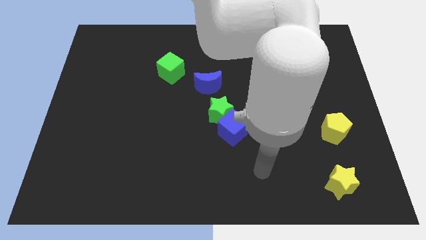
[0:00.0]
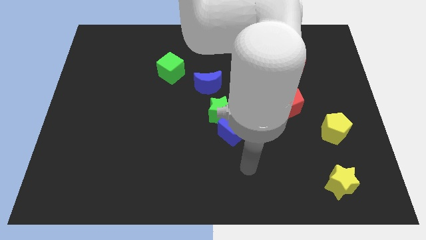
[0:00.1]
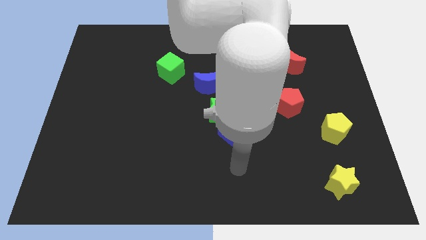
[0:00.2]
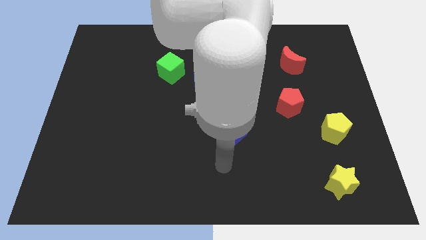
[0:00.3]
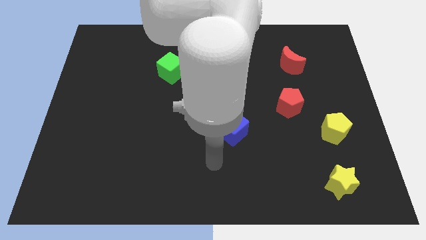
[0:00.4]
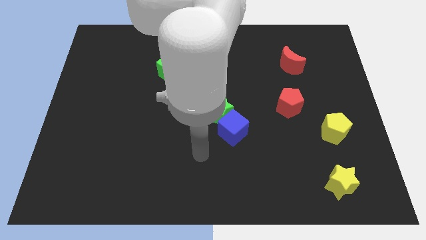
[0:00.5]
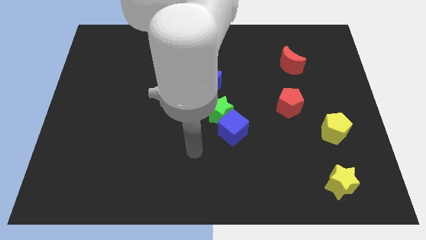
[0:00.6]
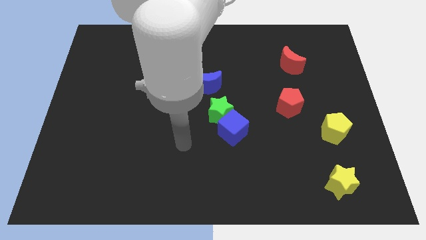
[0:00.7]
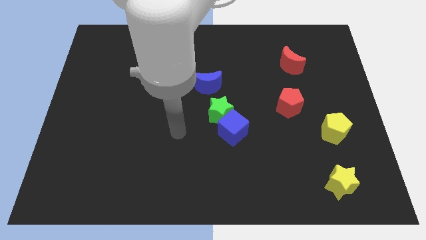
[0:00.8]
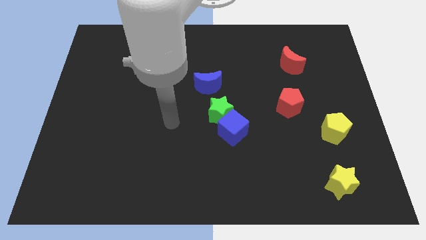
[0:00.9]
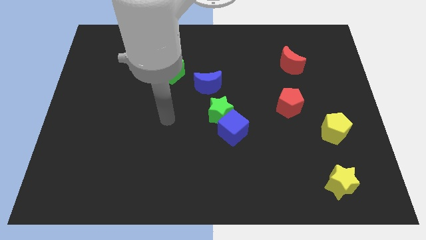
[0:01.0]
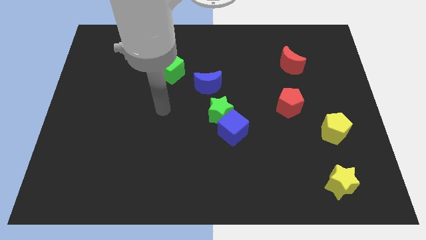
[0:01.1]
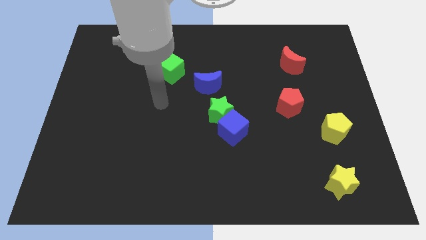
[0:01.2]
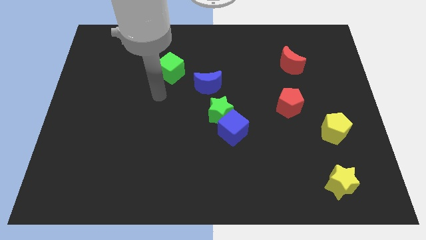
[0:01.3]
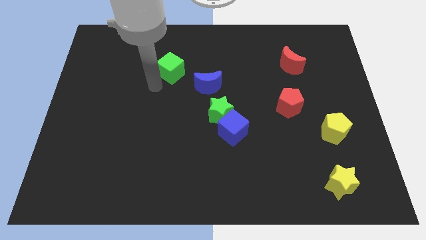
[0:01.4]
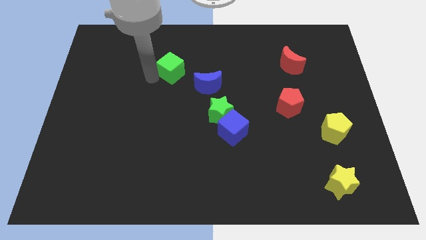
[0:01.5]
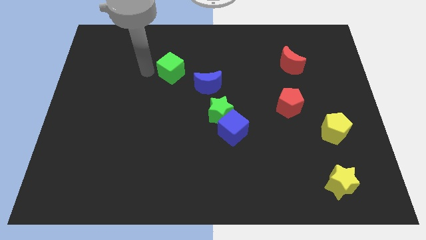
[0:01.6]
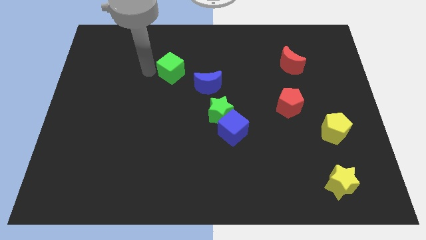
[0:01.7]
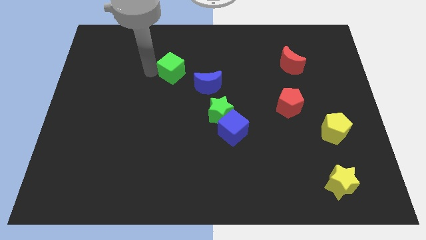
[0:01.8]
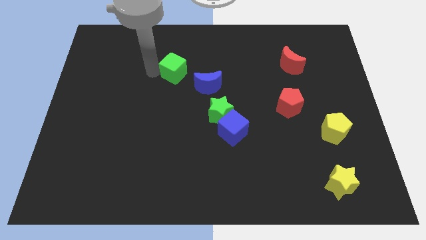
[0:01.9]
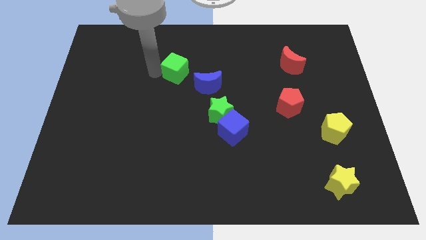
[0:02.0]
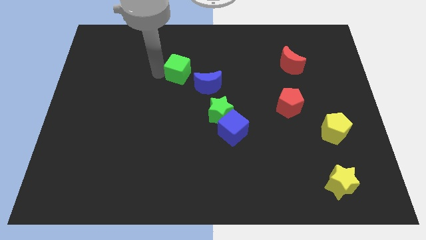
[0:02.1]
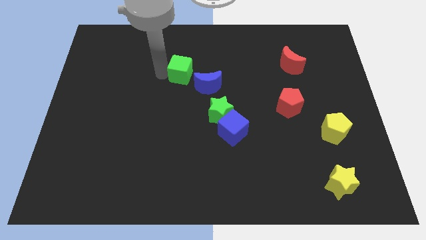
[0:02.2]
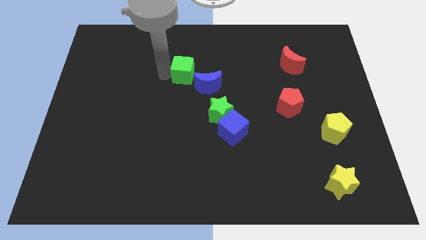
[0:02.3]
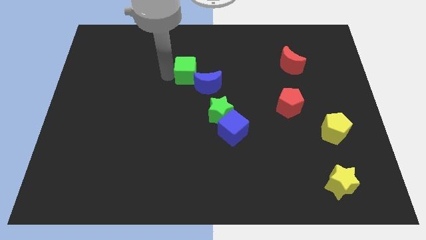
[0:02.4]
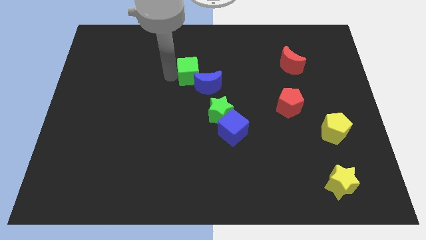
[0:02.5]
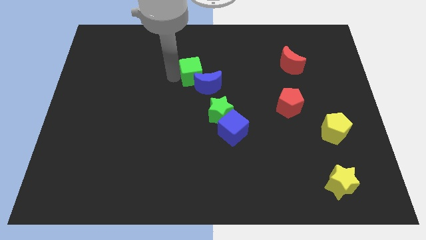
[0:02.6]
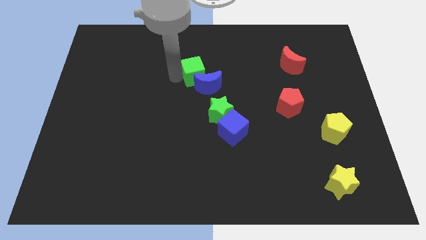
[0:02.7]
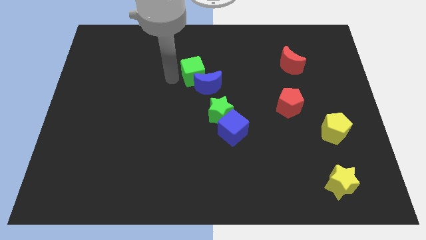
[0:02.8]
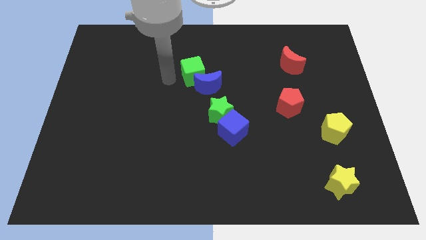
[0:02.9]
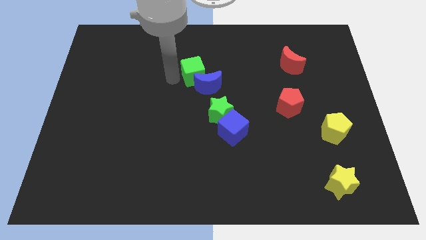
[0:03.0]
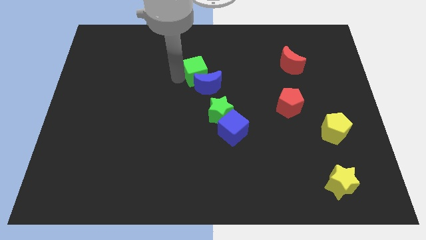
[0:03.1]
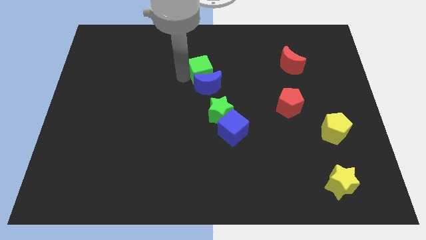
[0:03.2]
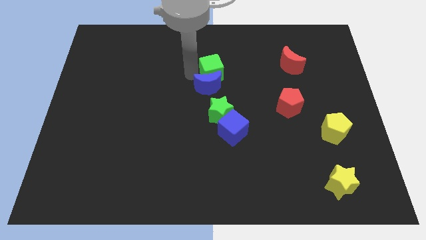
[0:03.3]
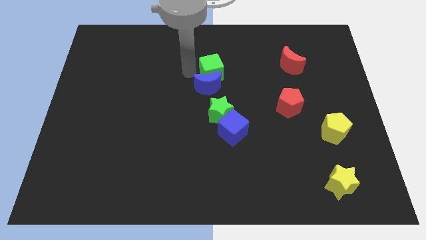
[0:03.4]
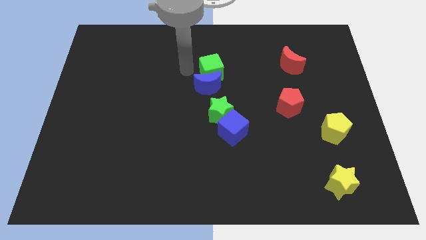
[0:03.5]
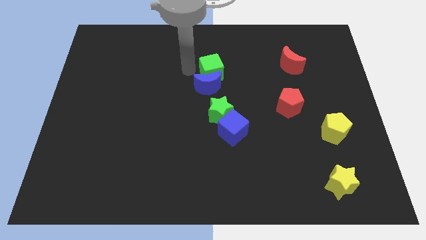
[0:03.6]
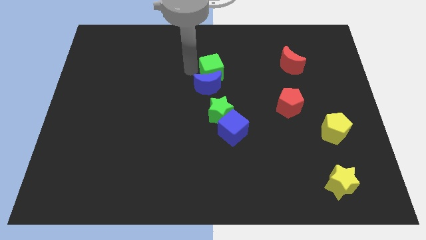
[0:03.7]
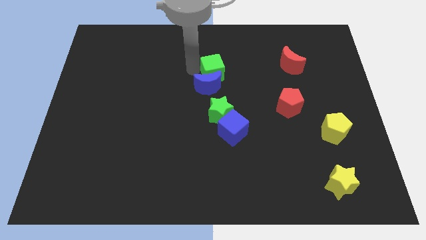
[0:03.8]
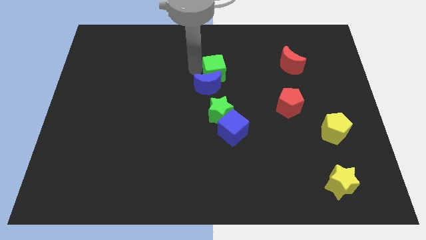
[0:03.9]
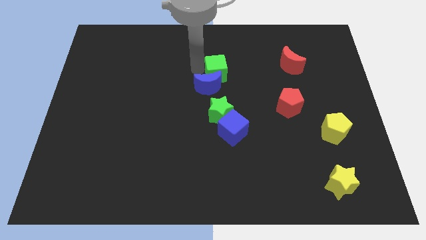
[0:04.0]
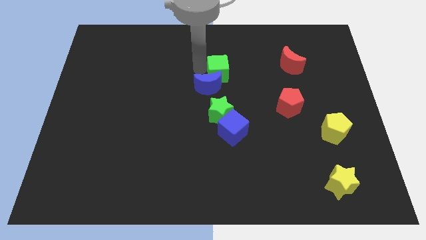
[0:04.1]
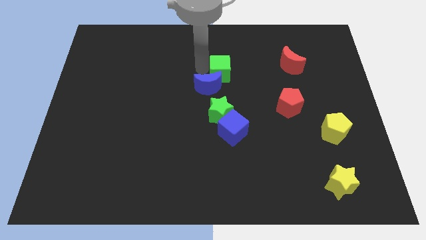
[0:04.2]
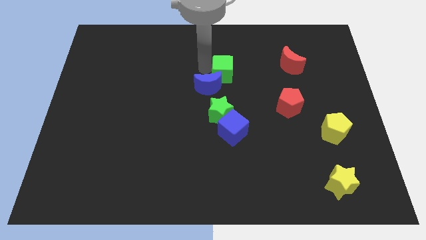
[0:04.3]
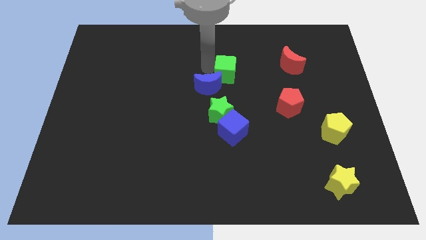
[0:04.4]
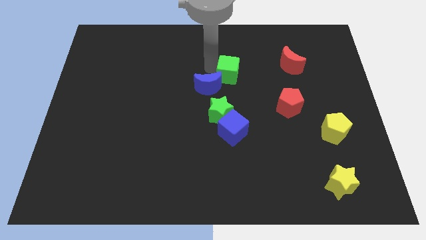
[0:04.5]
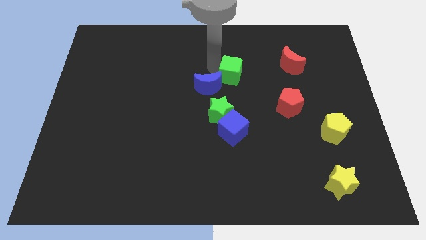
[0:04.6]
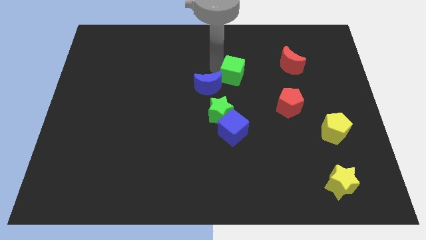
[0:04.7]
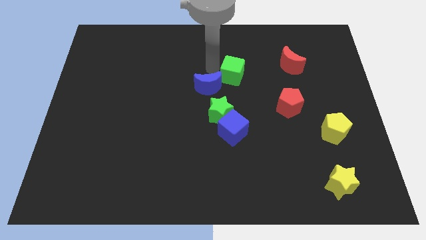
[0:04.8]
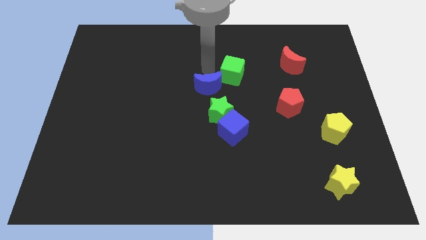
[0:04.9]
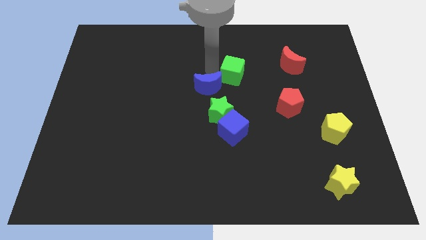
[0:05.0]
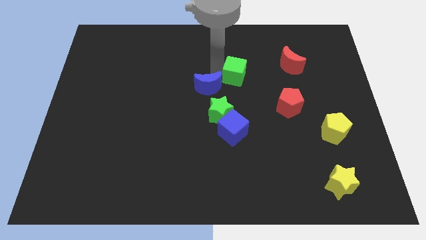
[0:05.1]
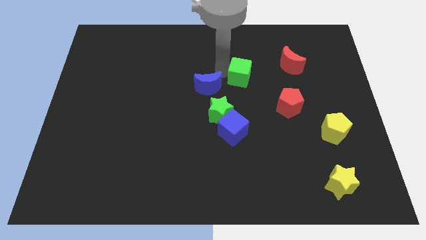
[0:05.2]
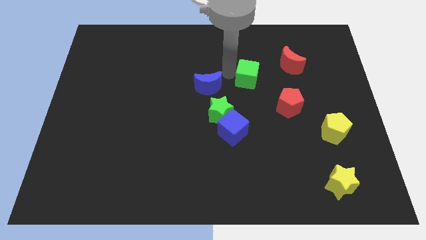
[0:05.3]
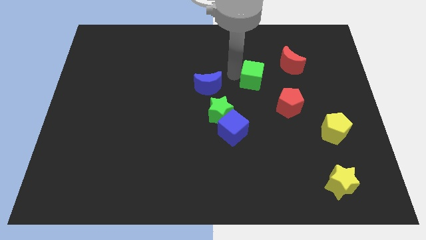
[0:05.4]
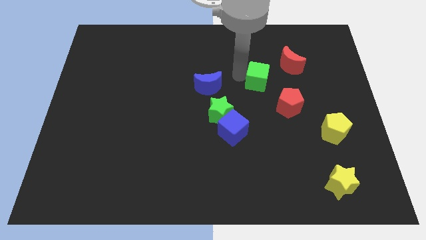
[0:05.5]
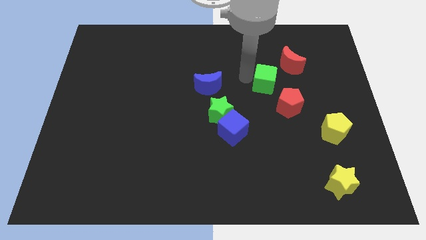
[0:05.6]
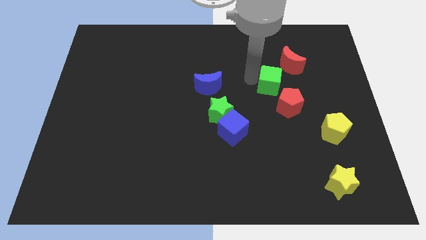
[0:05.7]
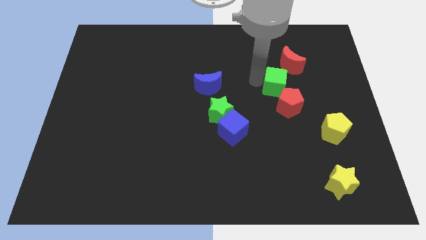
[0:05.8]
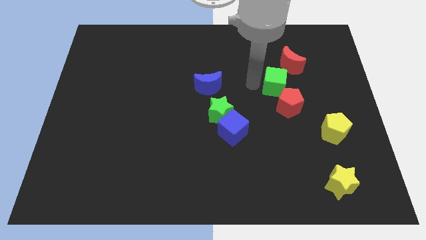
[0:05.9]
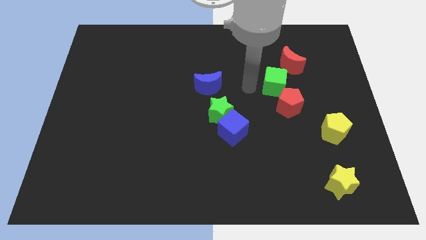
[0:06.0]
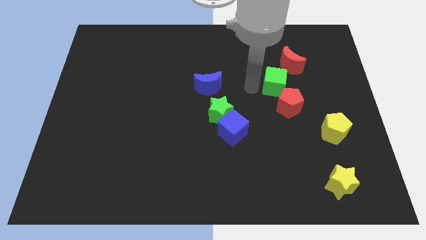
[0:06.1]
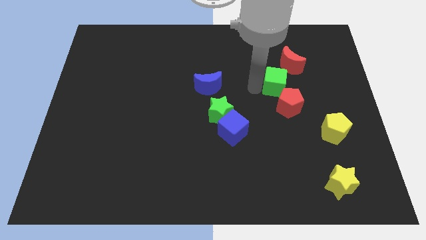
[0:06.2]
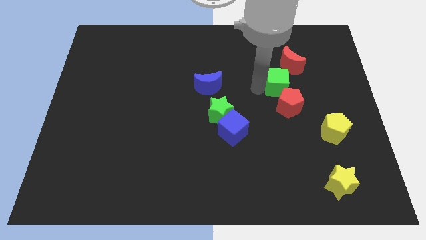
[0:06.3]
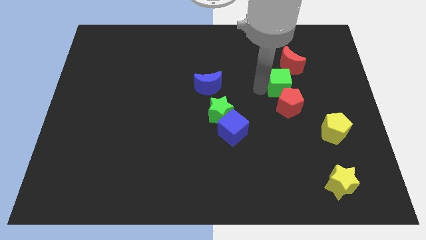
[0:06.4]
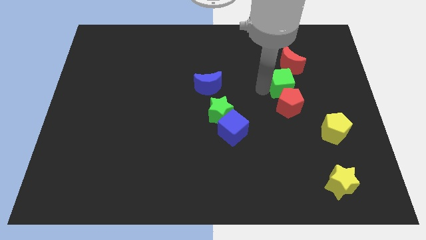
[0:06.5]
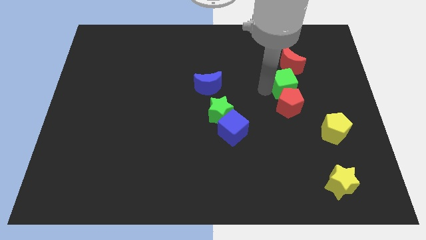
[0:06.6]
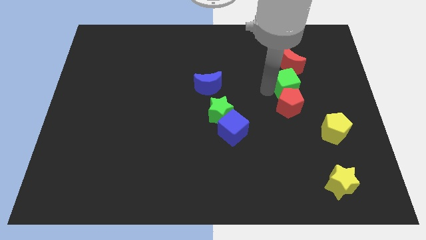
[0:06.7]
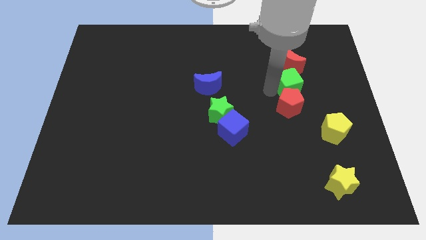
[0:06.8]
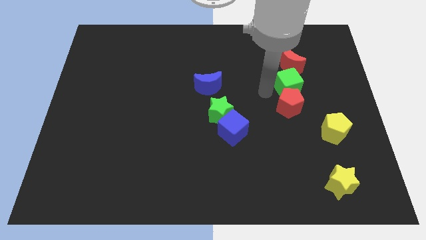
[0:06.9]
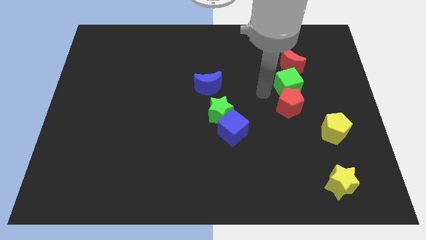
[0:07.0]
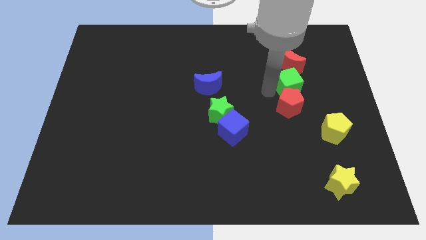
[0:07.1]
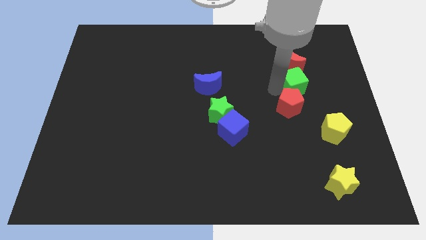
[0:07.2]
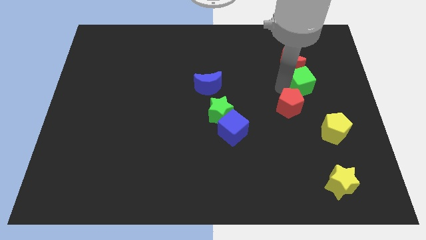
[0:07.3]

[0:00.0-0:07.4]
put the green cube to the bottom right side of the red moon

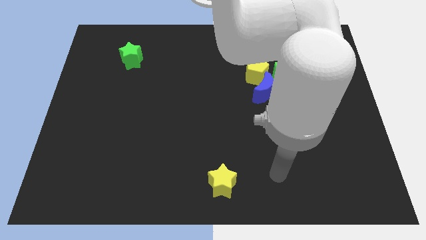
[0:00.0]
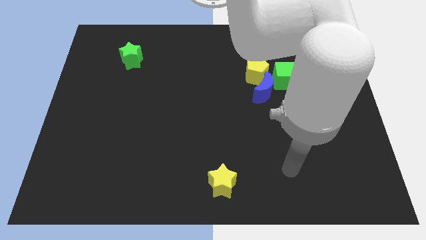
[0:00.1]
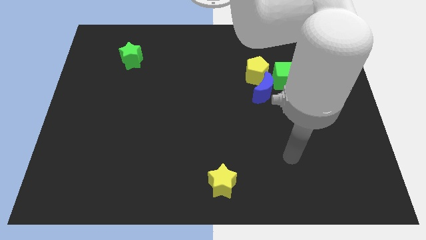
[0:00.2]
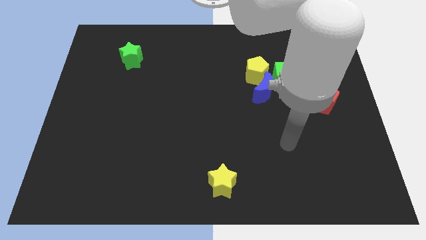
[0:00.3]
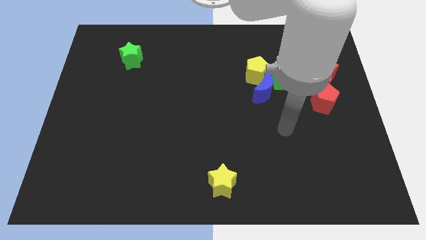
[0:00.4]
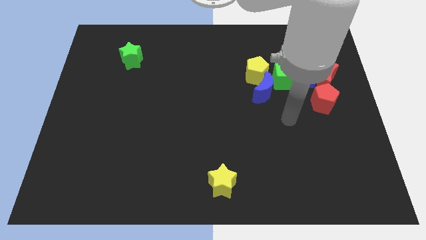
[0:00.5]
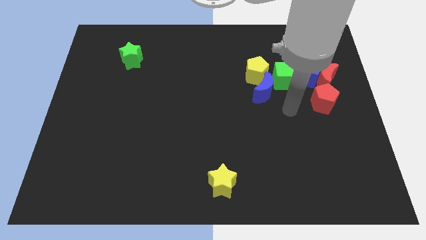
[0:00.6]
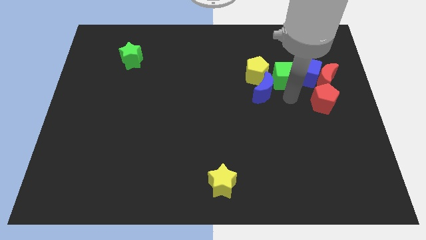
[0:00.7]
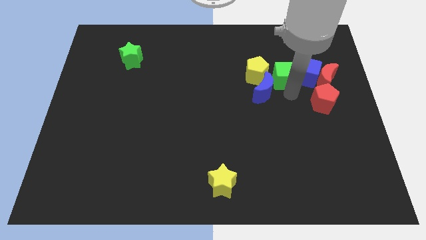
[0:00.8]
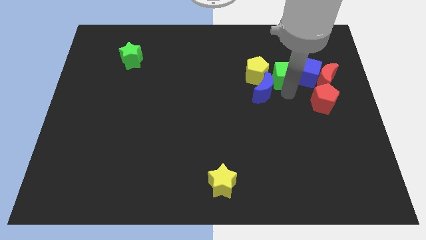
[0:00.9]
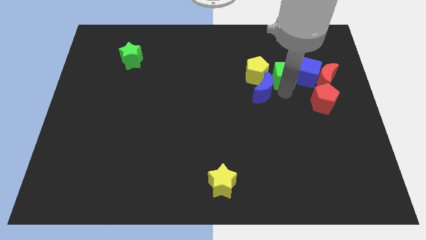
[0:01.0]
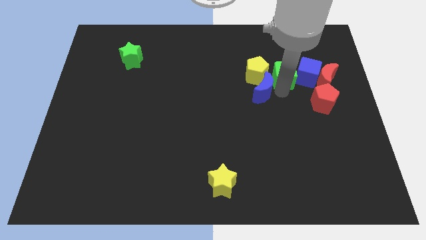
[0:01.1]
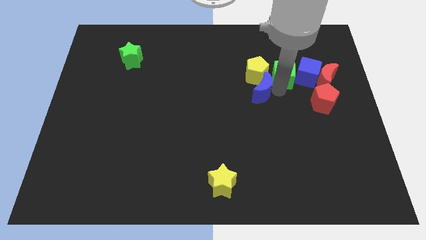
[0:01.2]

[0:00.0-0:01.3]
push the blue moon to the bottom left side of the yellow pentagon

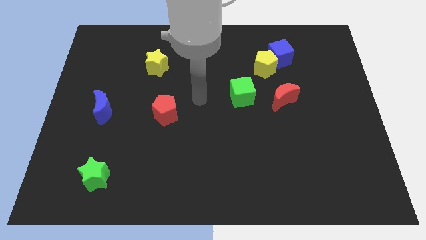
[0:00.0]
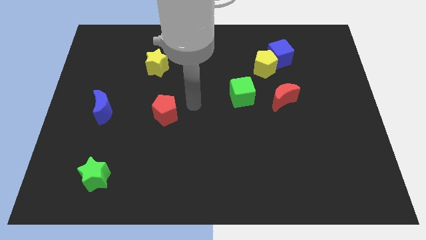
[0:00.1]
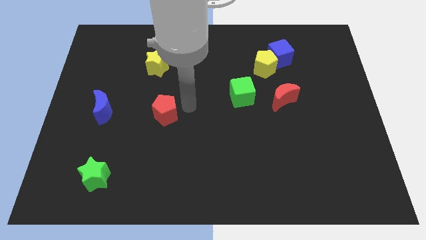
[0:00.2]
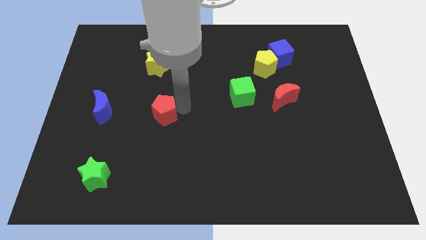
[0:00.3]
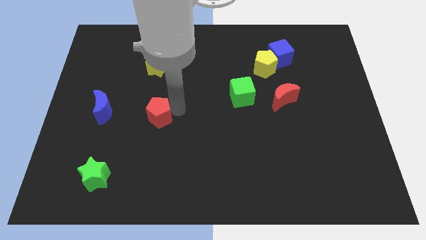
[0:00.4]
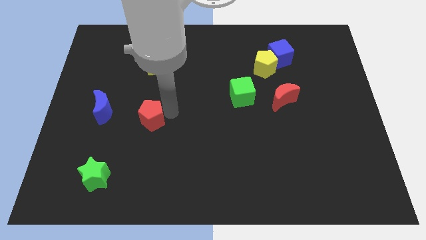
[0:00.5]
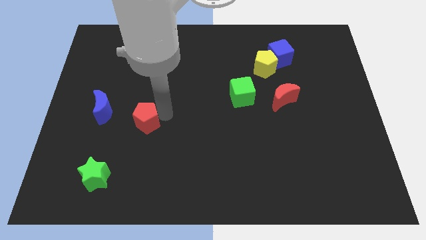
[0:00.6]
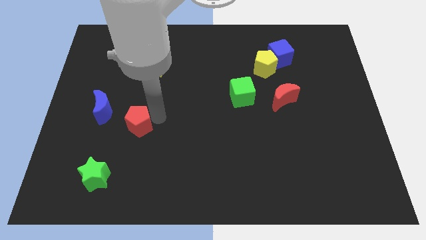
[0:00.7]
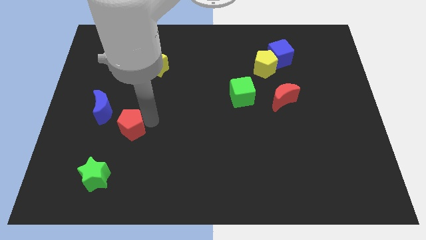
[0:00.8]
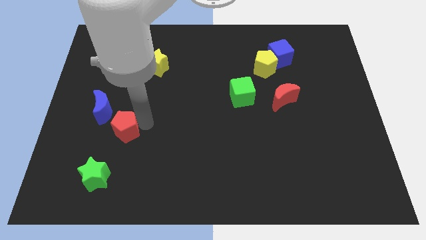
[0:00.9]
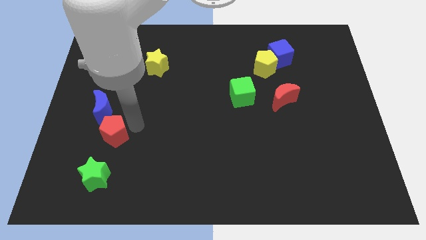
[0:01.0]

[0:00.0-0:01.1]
put the red pentagon below the blue moon
